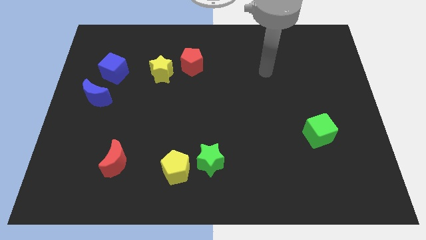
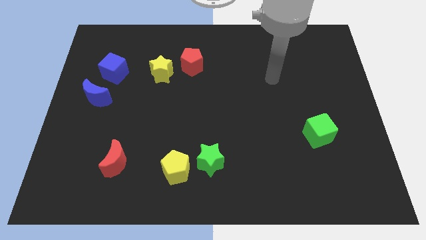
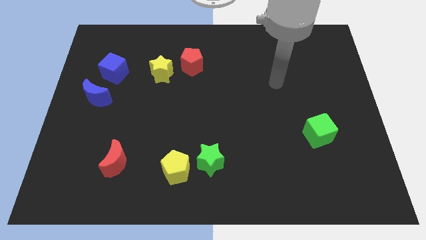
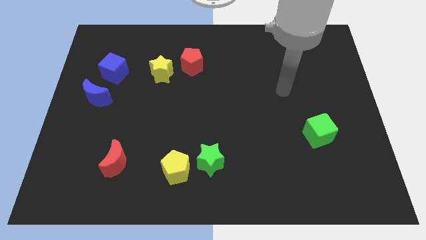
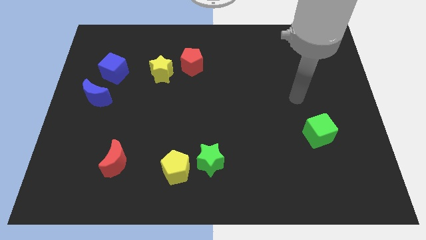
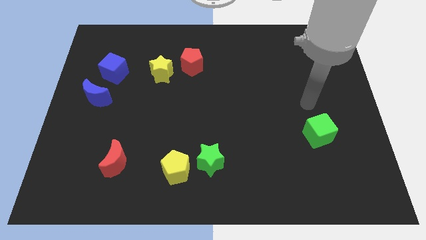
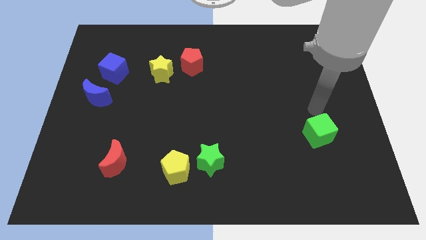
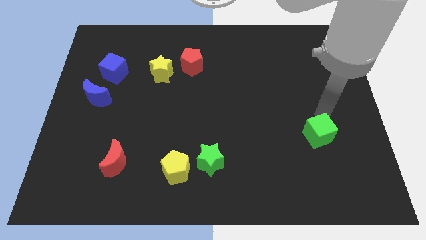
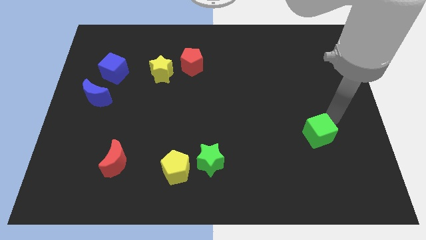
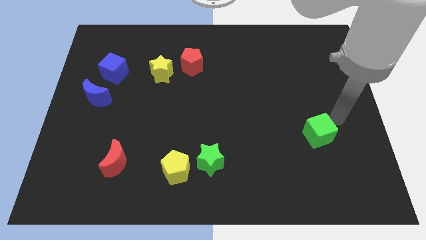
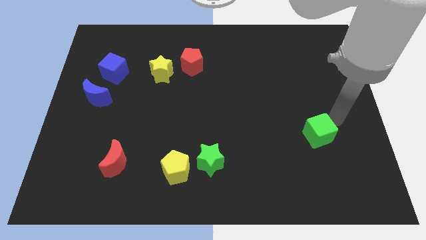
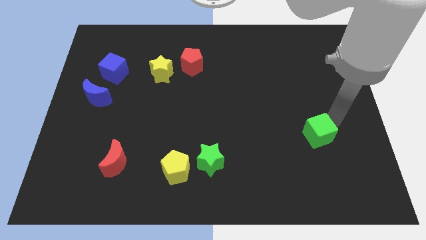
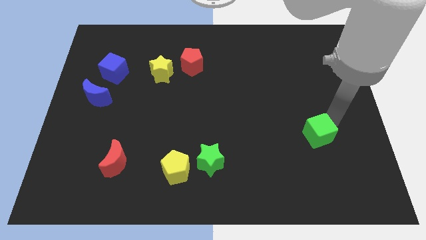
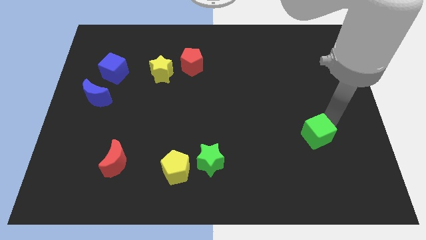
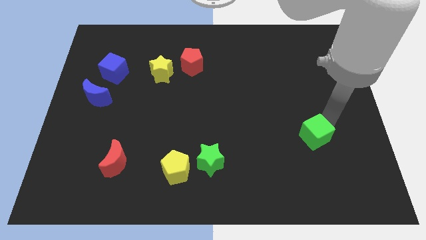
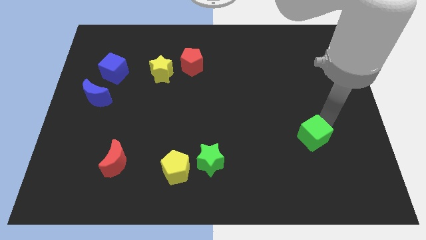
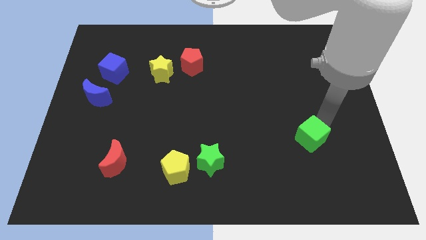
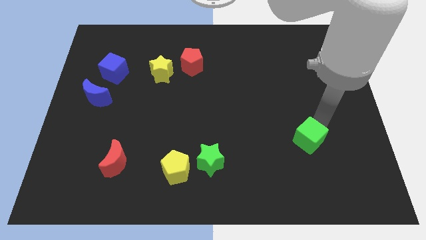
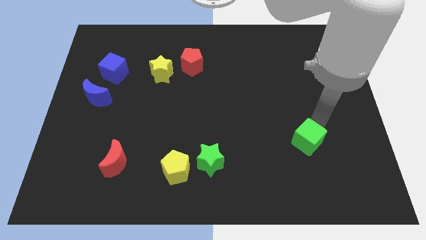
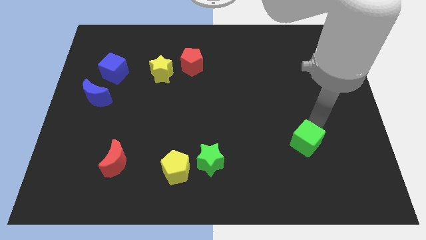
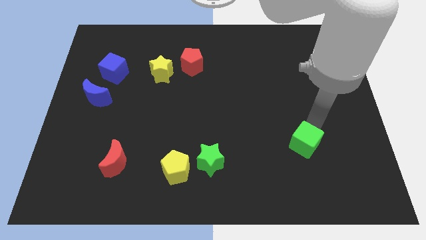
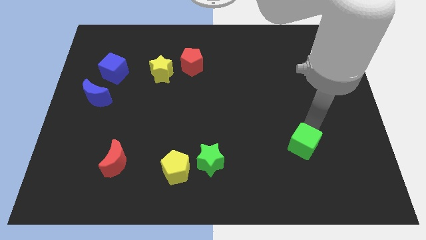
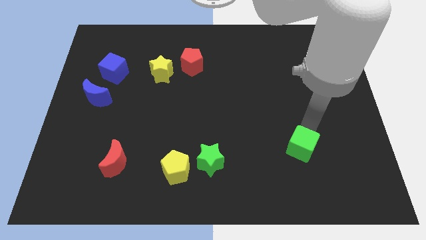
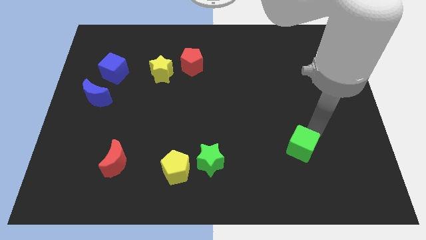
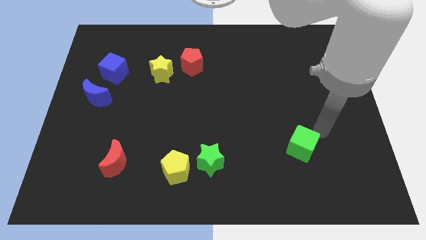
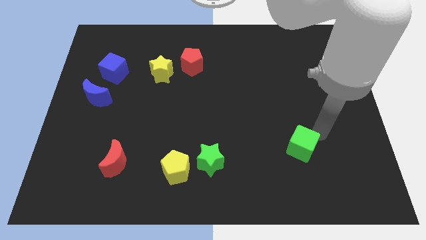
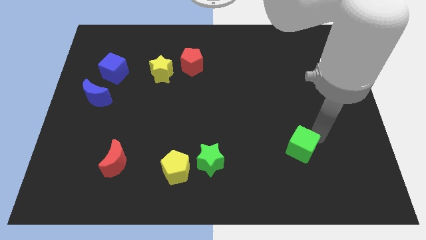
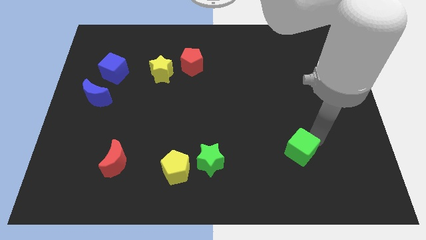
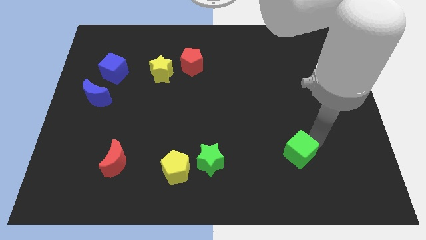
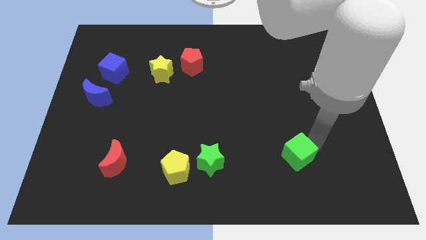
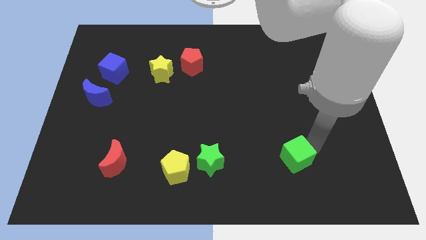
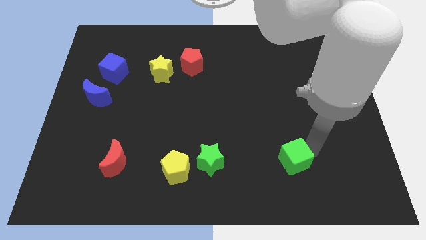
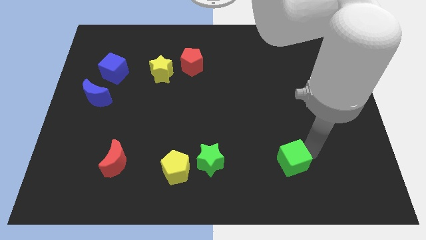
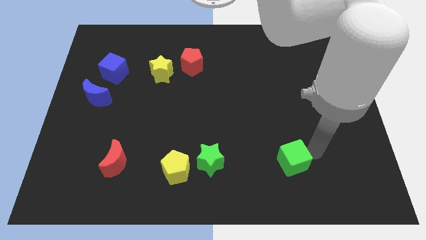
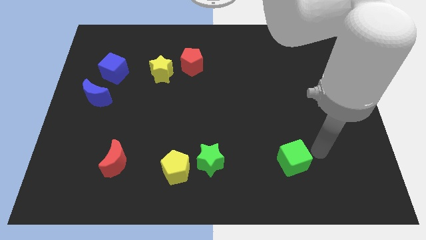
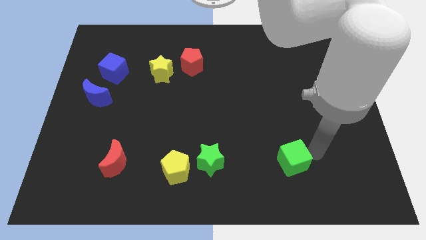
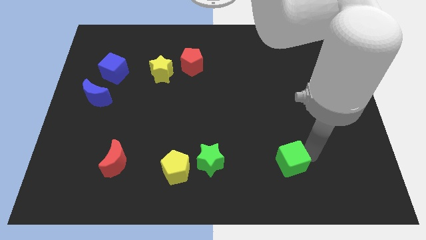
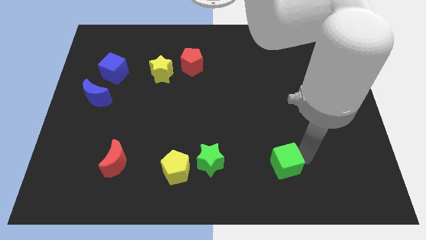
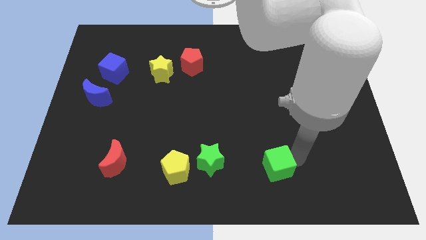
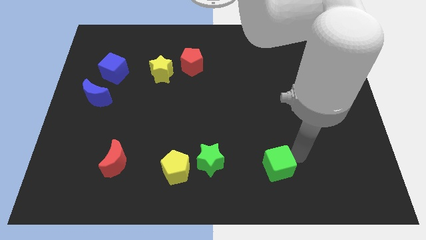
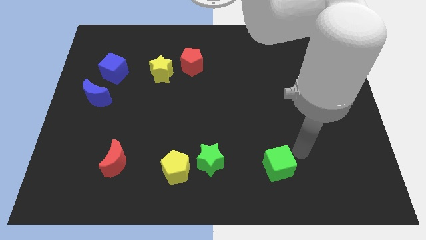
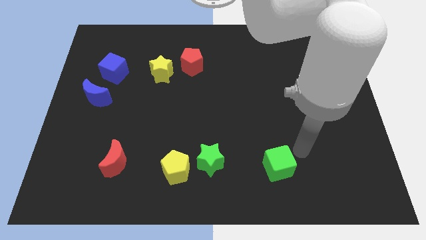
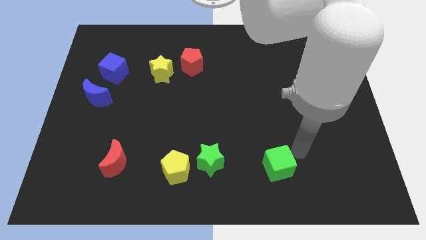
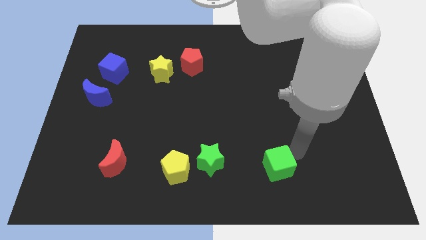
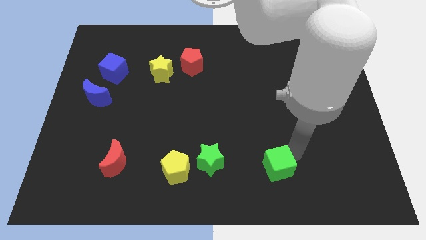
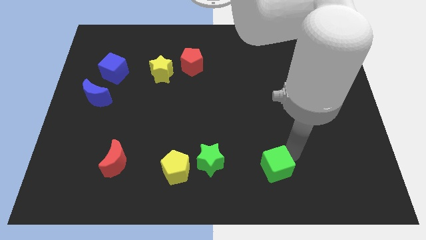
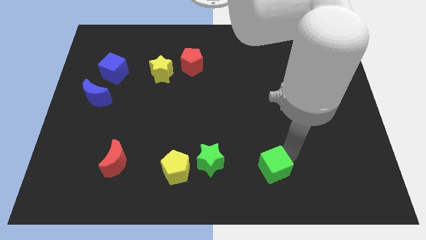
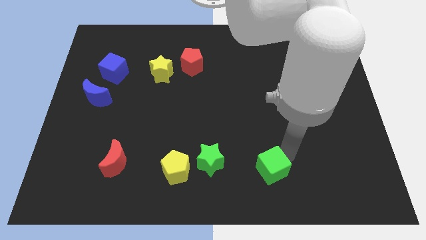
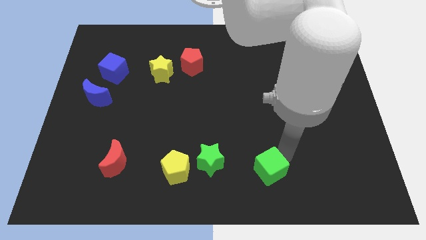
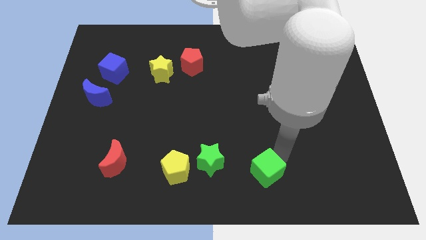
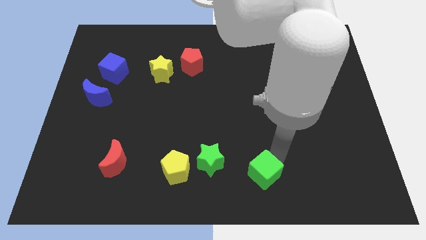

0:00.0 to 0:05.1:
push the green cube to the bottom side
